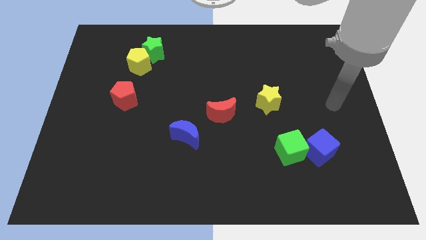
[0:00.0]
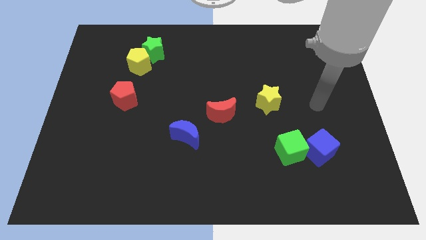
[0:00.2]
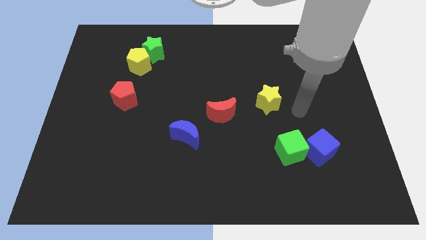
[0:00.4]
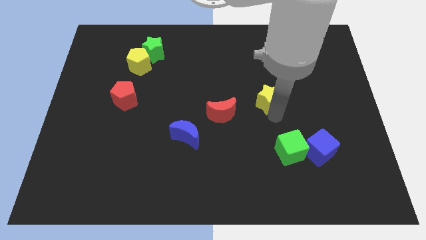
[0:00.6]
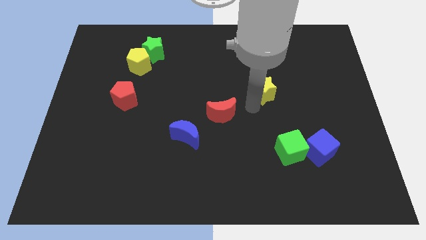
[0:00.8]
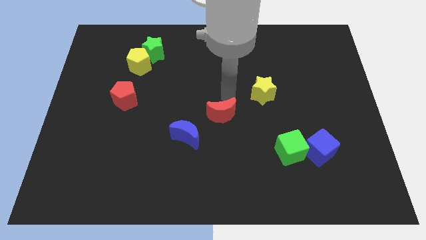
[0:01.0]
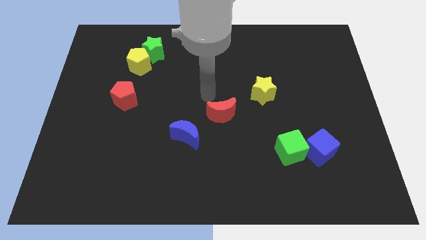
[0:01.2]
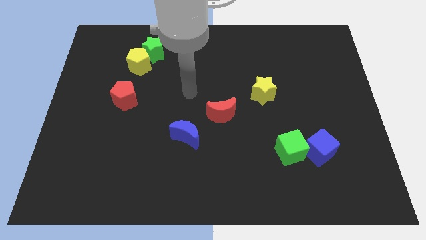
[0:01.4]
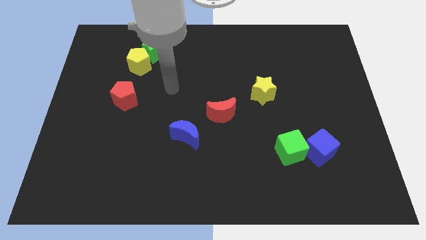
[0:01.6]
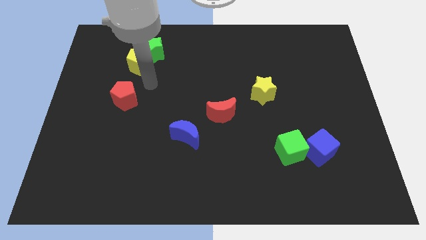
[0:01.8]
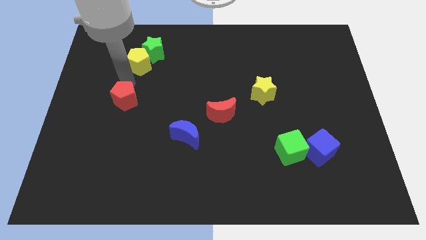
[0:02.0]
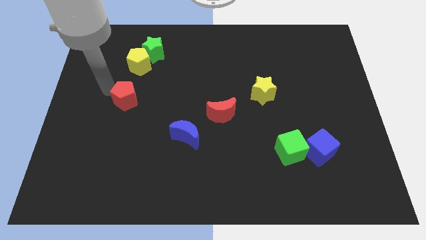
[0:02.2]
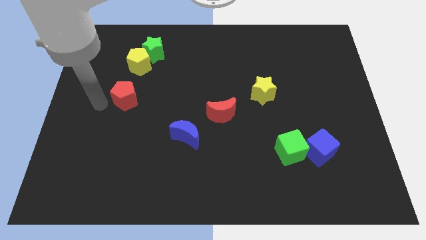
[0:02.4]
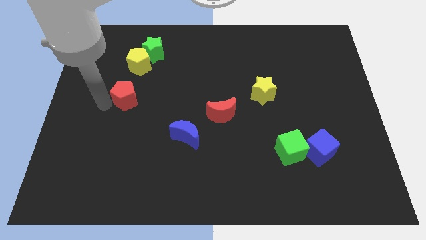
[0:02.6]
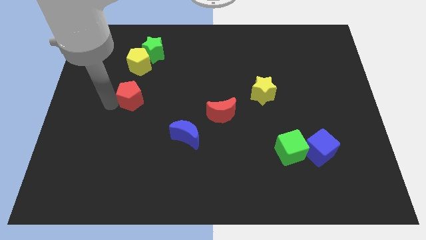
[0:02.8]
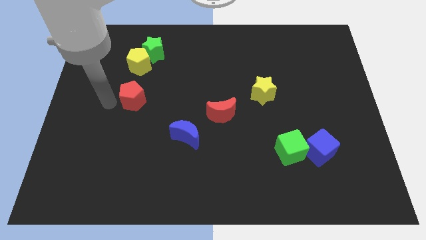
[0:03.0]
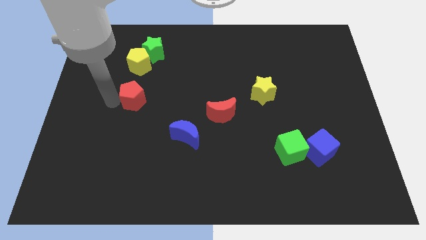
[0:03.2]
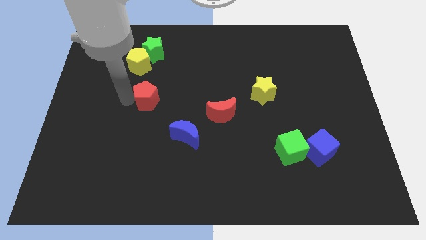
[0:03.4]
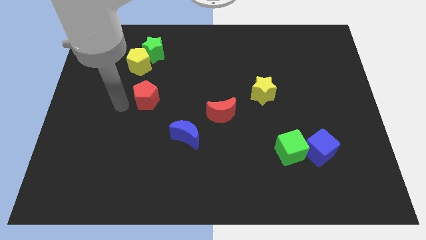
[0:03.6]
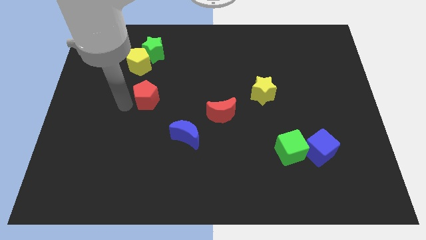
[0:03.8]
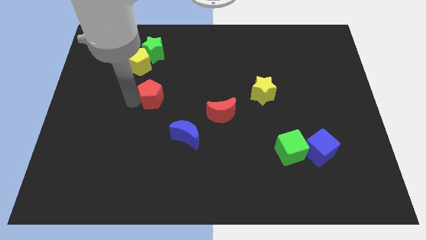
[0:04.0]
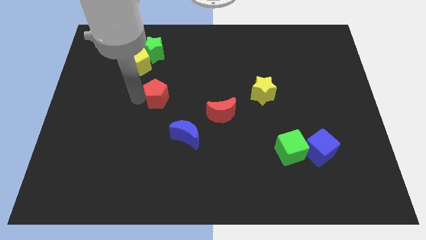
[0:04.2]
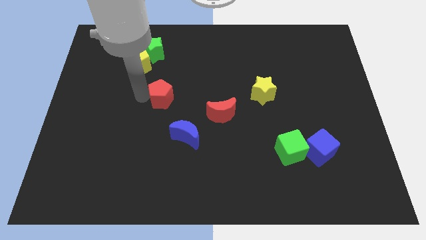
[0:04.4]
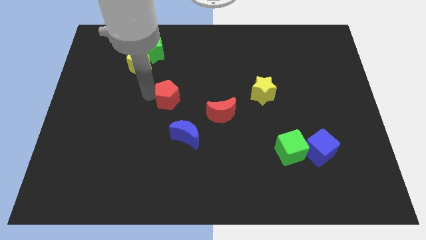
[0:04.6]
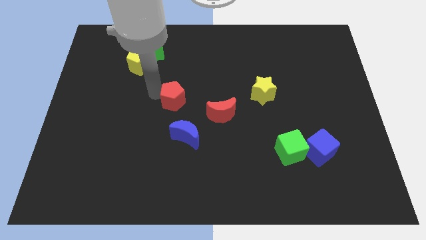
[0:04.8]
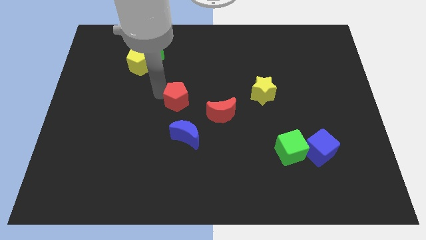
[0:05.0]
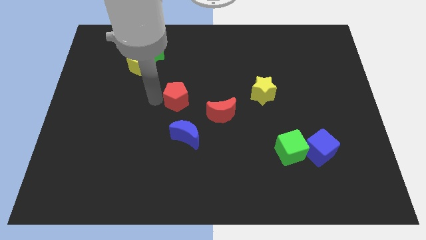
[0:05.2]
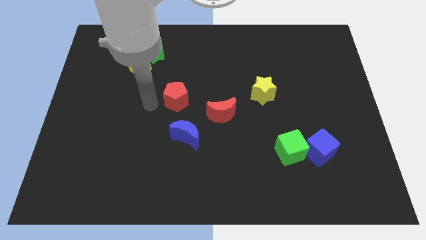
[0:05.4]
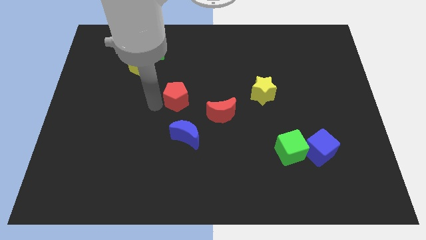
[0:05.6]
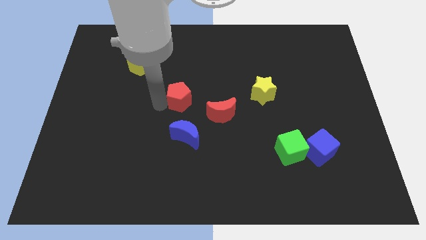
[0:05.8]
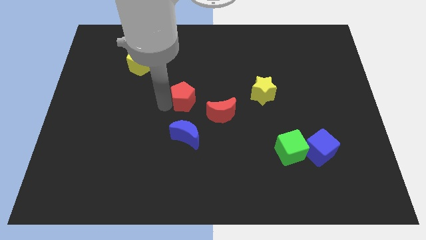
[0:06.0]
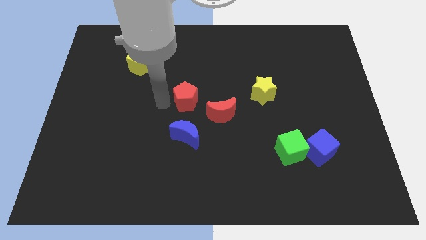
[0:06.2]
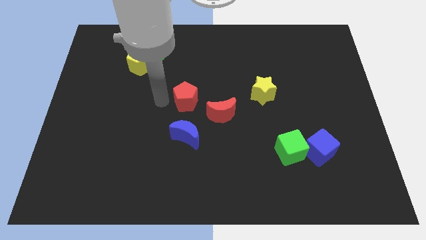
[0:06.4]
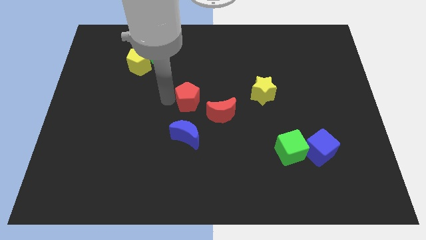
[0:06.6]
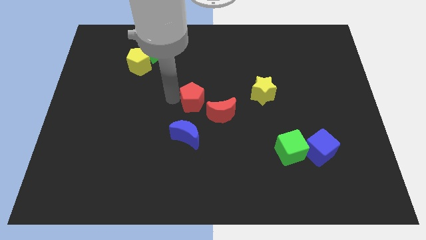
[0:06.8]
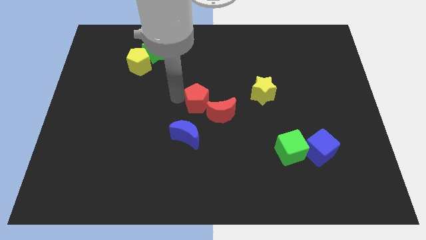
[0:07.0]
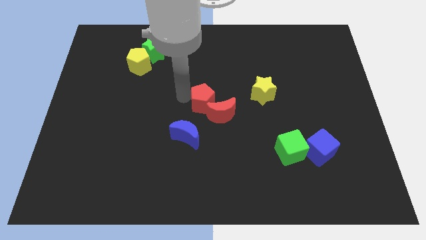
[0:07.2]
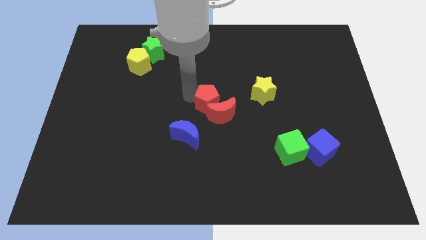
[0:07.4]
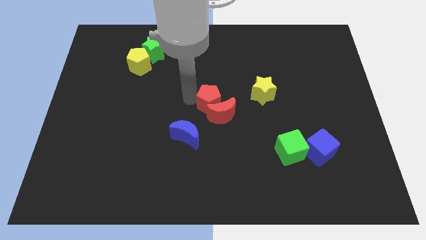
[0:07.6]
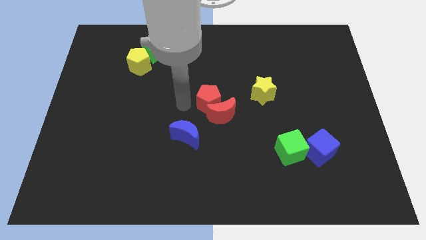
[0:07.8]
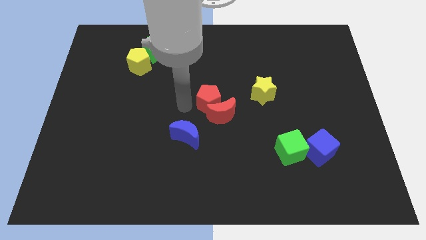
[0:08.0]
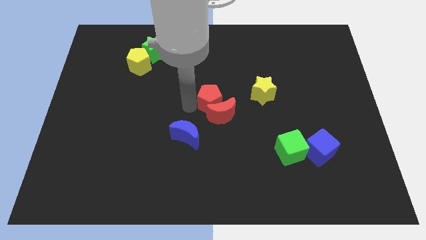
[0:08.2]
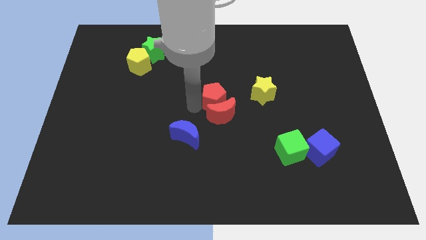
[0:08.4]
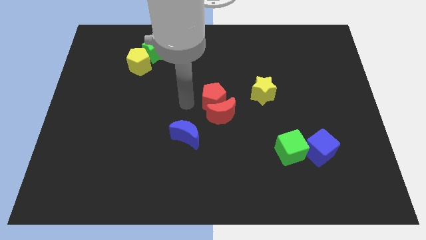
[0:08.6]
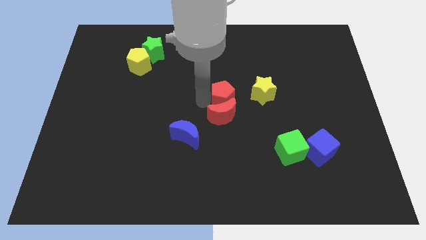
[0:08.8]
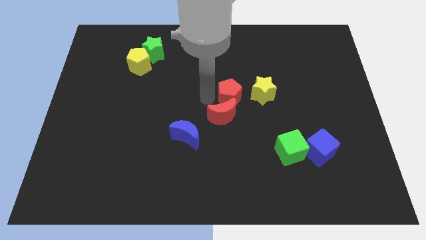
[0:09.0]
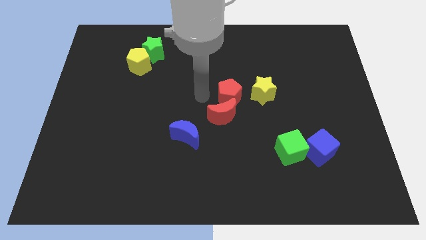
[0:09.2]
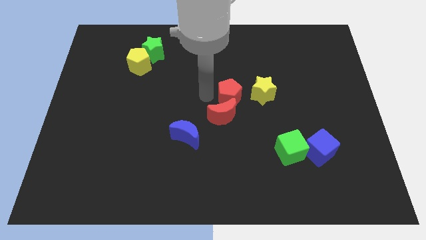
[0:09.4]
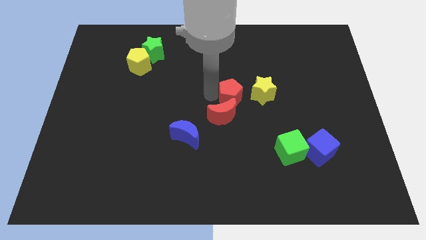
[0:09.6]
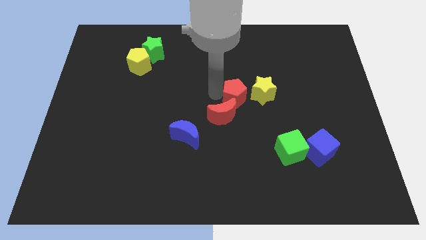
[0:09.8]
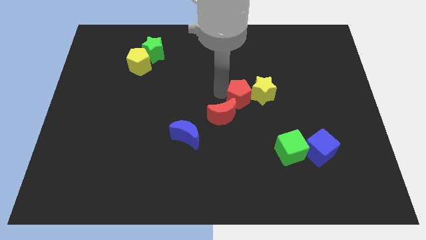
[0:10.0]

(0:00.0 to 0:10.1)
move the red pentagon close to the yellow star

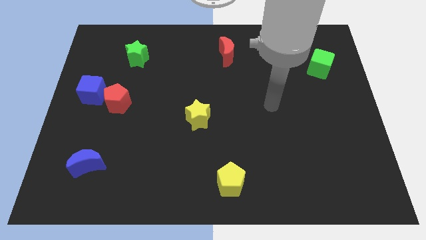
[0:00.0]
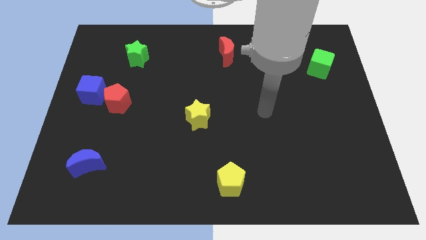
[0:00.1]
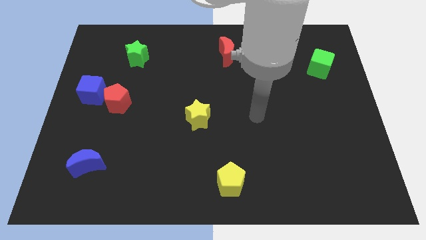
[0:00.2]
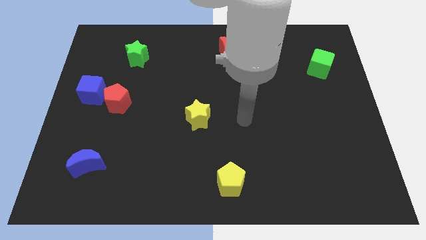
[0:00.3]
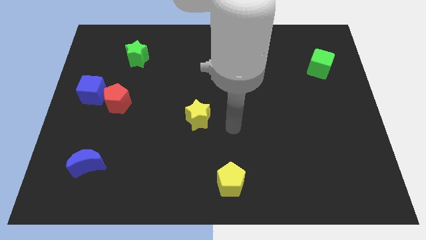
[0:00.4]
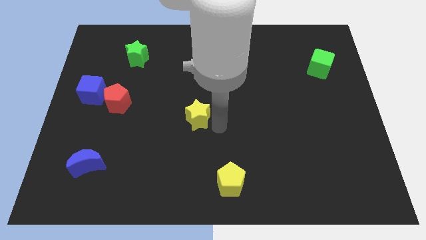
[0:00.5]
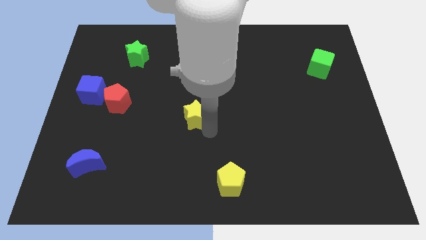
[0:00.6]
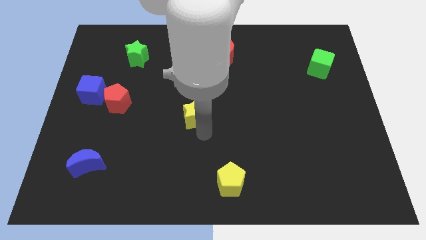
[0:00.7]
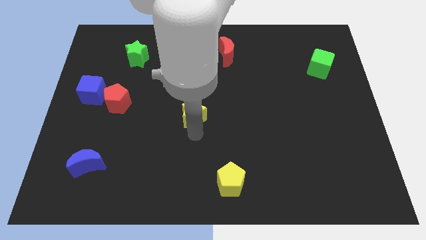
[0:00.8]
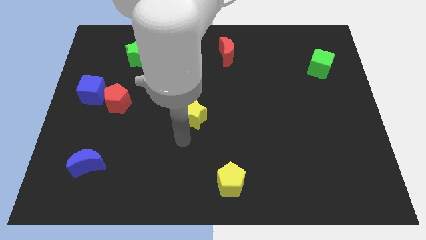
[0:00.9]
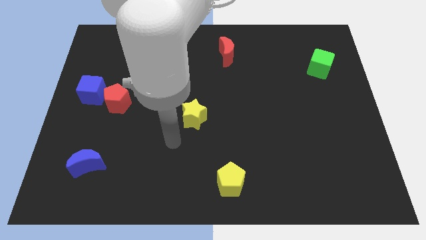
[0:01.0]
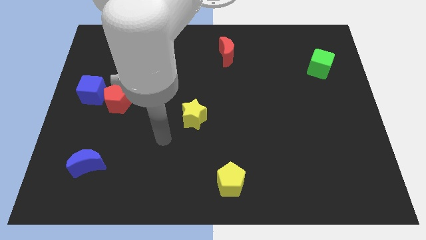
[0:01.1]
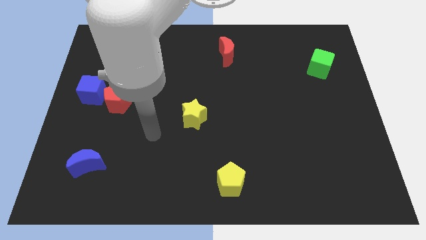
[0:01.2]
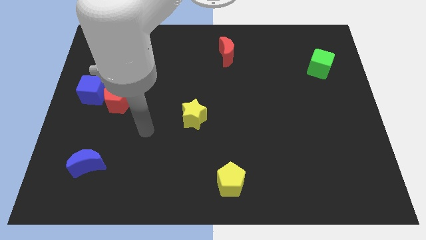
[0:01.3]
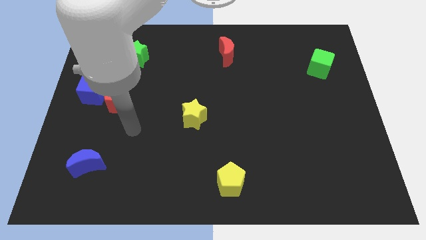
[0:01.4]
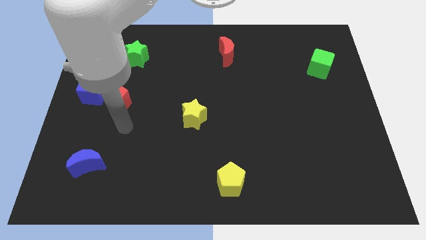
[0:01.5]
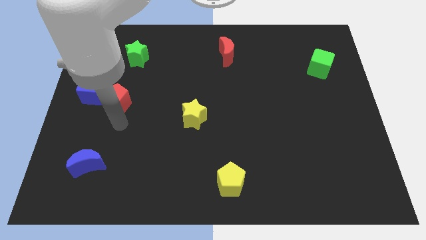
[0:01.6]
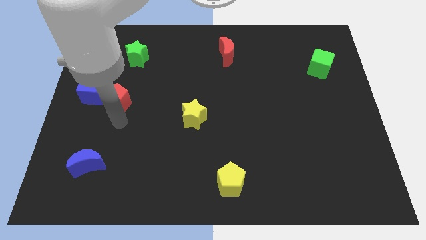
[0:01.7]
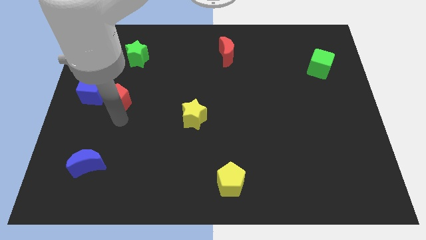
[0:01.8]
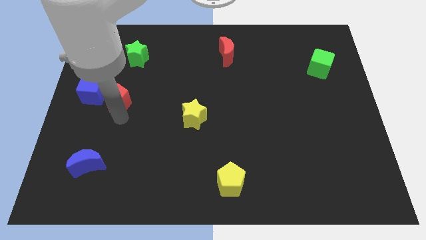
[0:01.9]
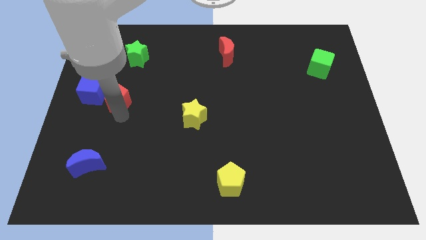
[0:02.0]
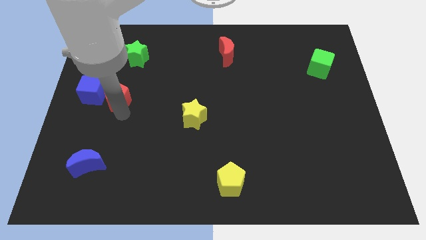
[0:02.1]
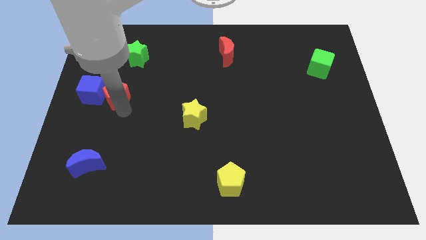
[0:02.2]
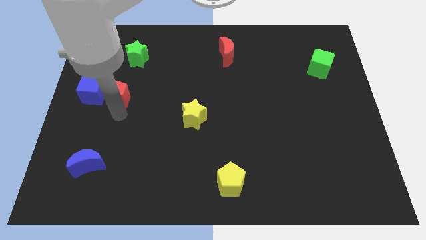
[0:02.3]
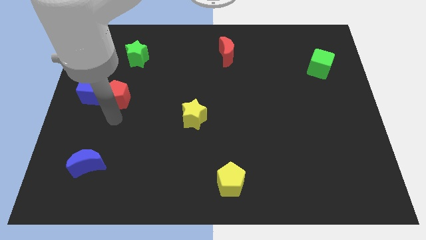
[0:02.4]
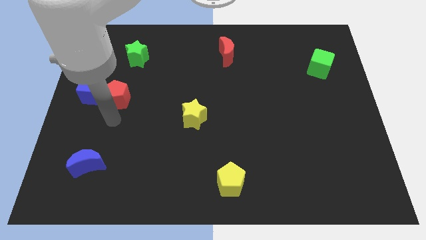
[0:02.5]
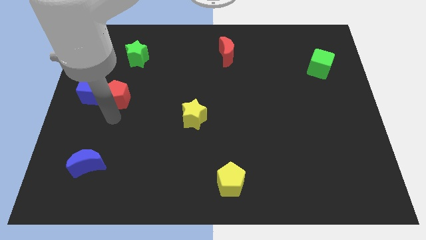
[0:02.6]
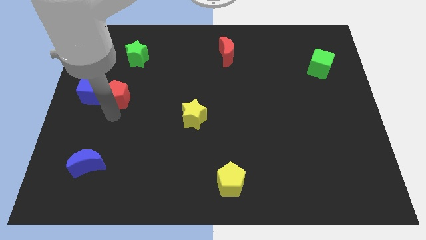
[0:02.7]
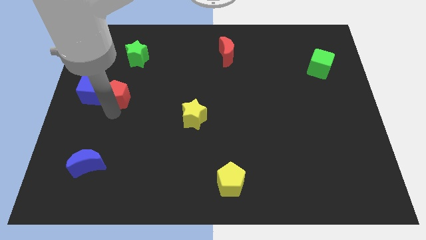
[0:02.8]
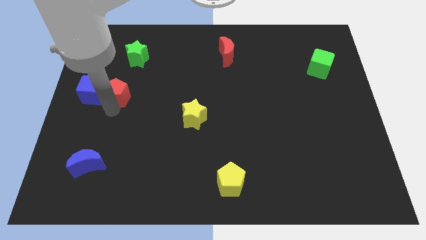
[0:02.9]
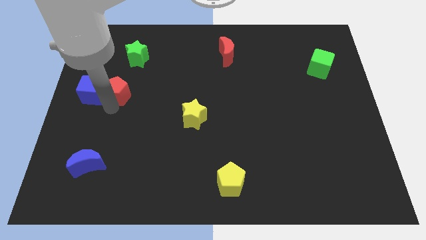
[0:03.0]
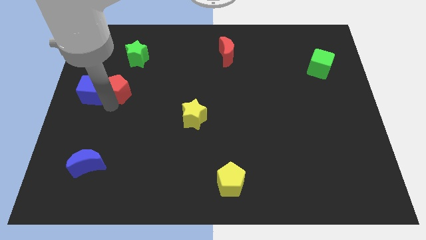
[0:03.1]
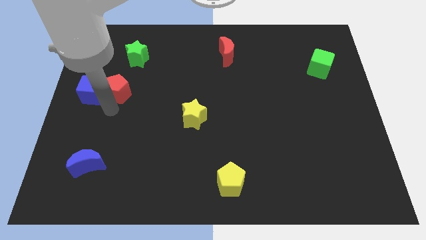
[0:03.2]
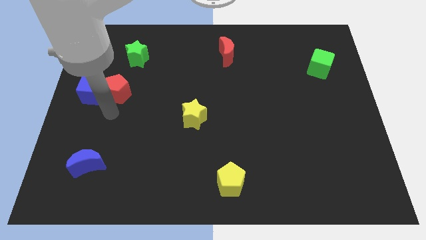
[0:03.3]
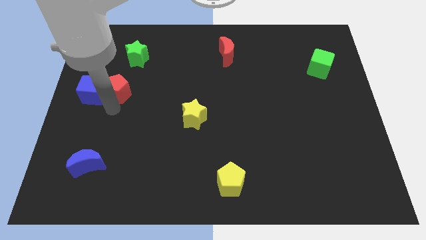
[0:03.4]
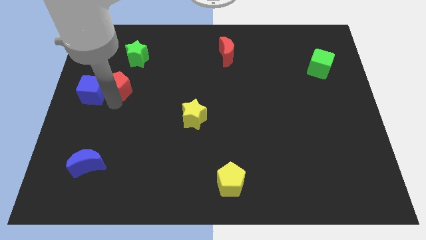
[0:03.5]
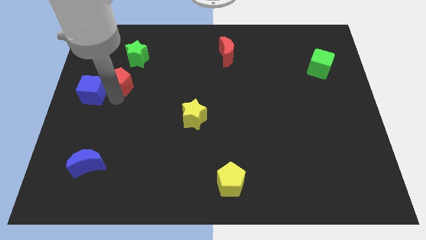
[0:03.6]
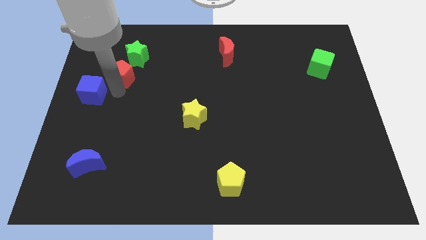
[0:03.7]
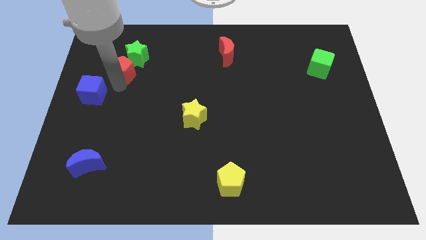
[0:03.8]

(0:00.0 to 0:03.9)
put the red pentagon to the green star

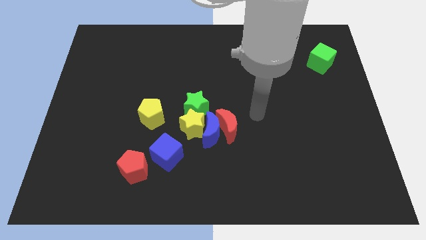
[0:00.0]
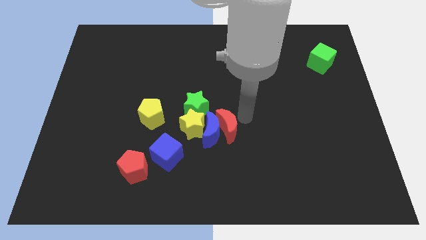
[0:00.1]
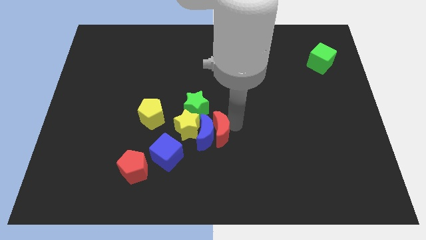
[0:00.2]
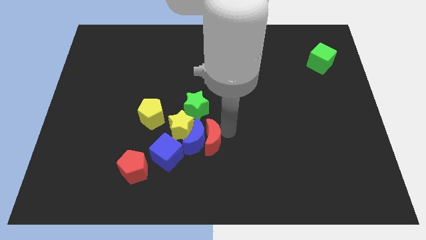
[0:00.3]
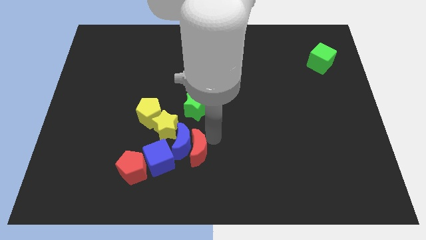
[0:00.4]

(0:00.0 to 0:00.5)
move the yellow star close to the yellow pentagon
